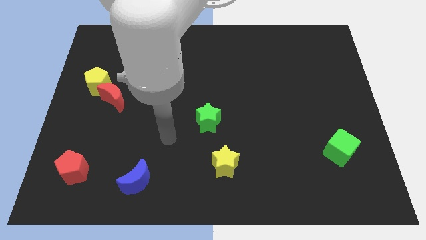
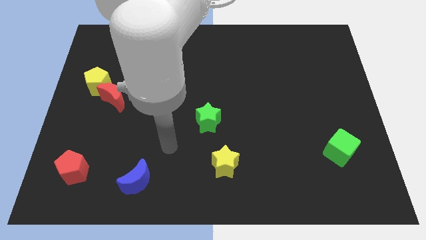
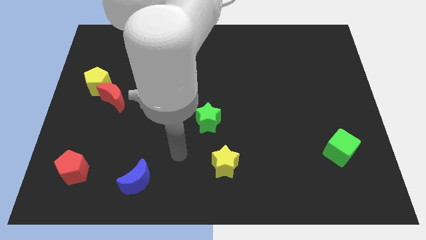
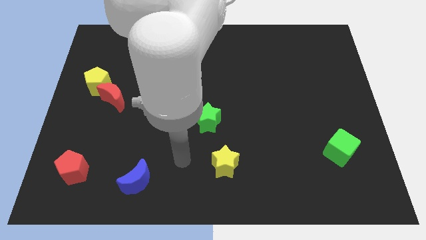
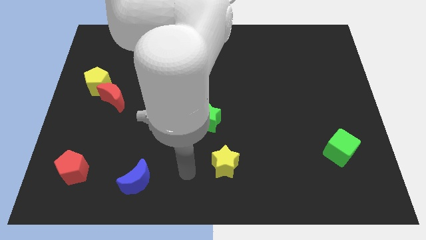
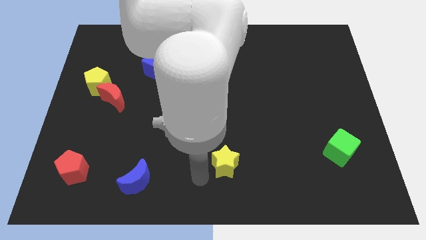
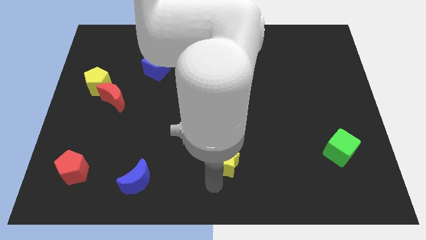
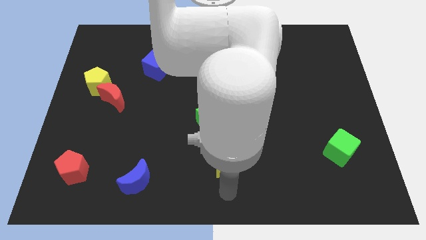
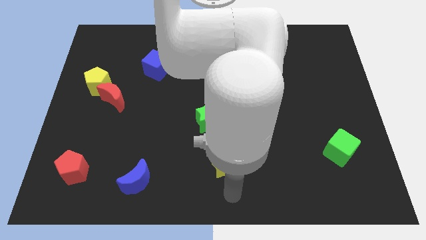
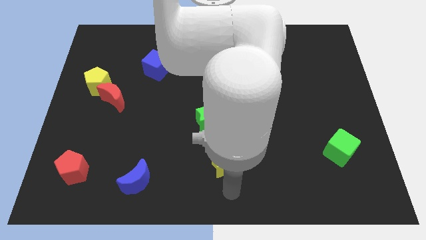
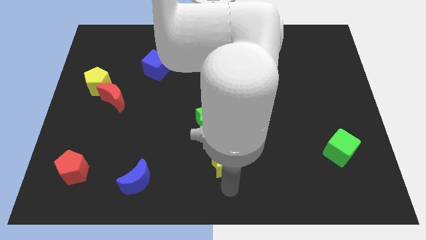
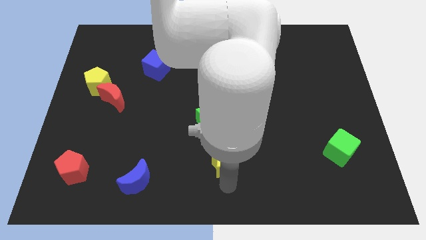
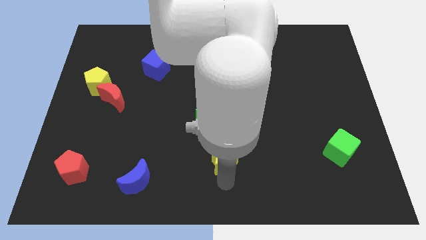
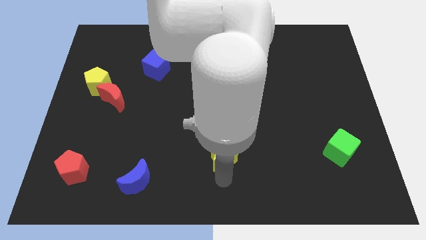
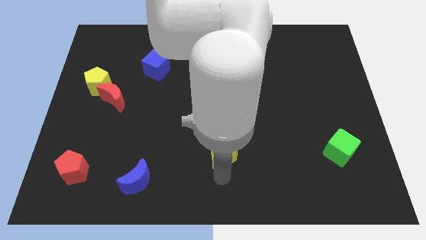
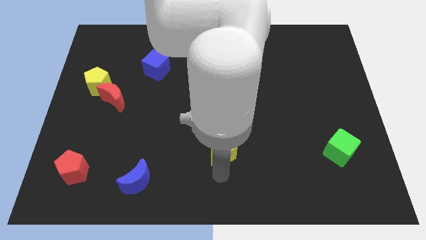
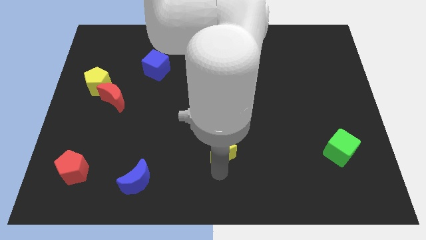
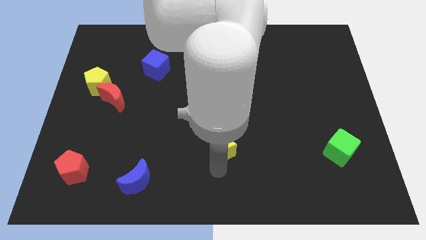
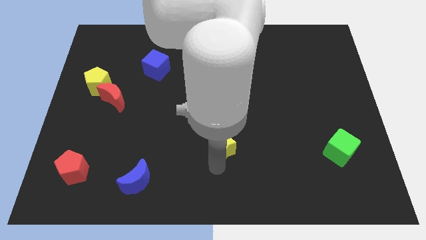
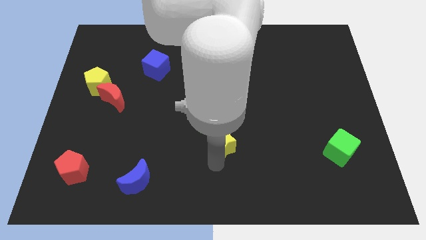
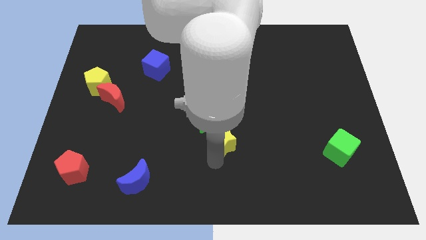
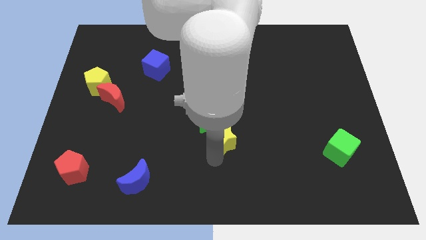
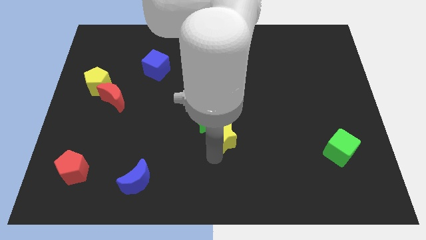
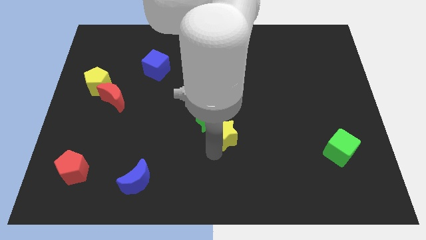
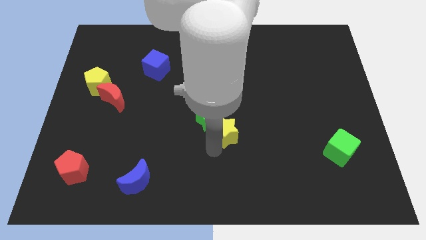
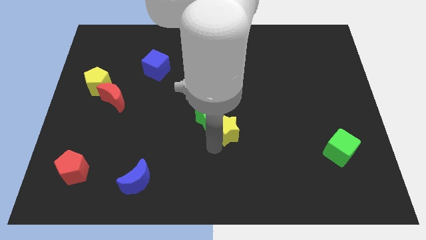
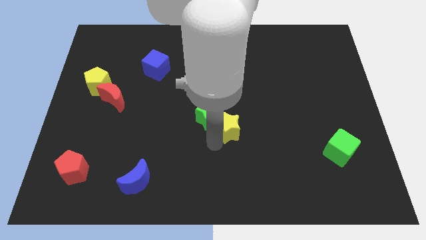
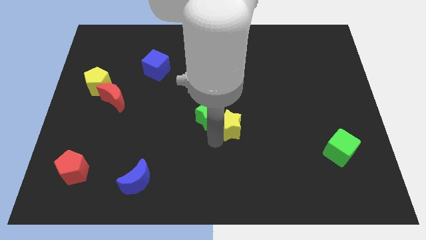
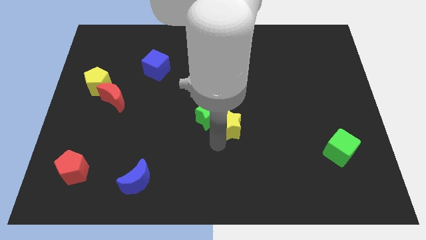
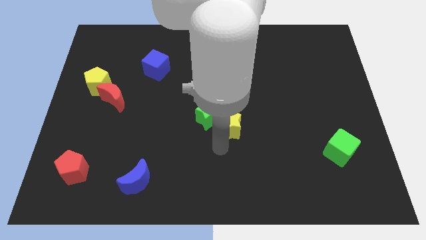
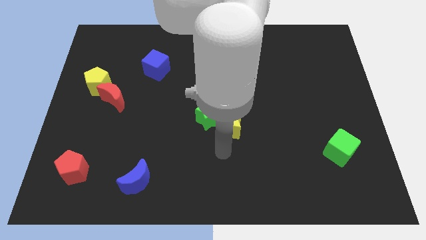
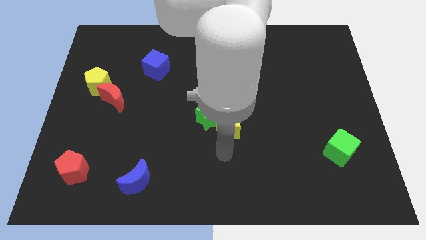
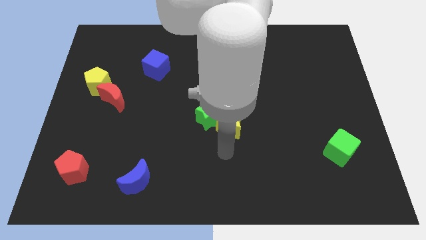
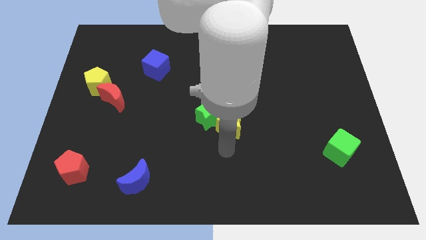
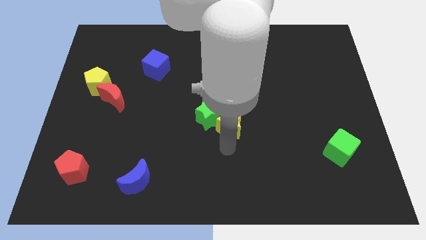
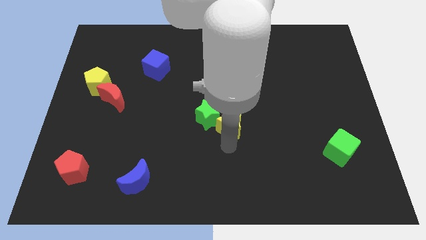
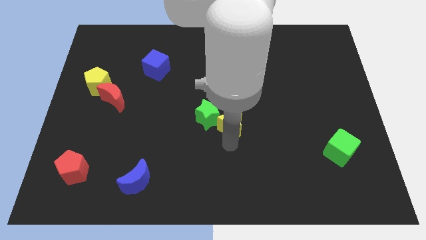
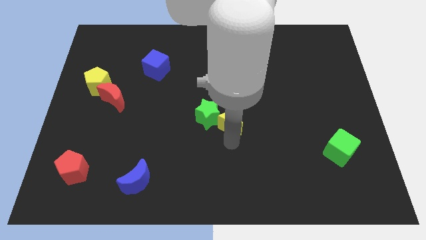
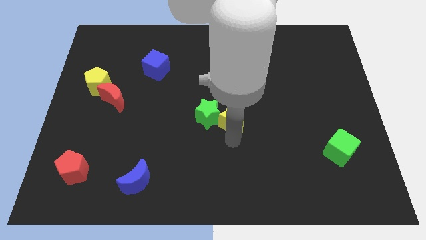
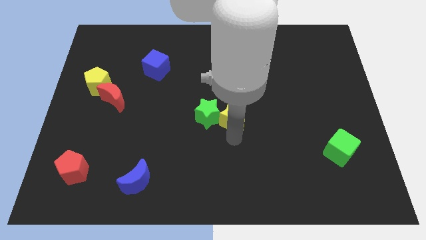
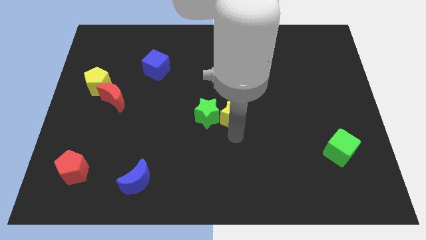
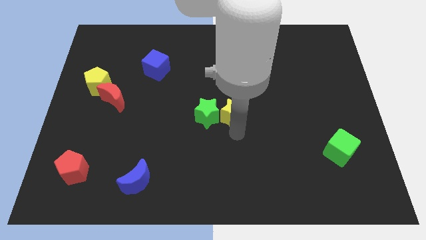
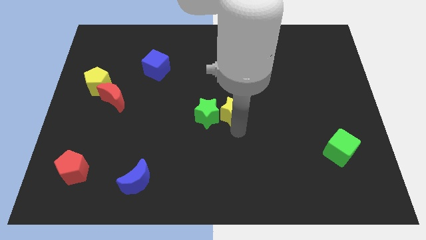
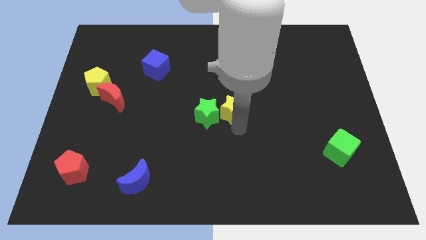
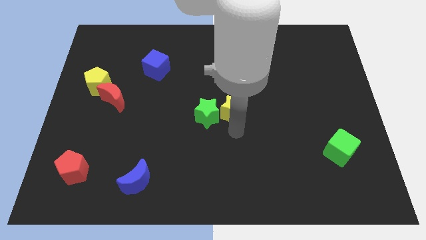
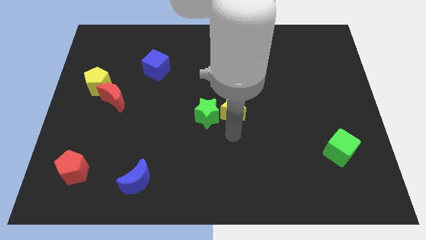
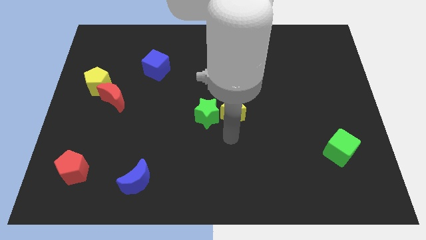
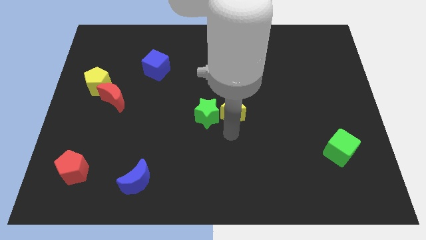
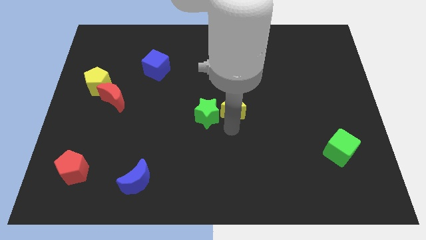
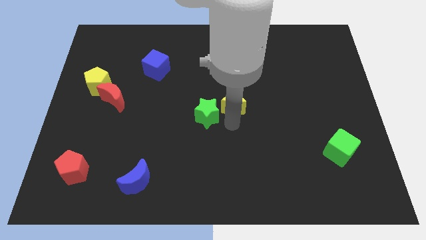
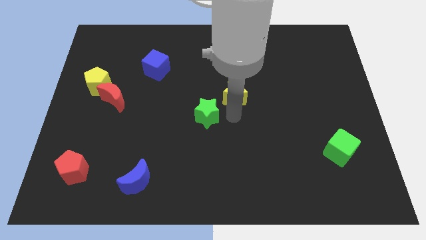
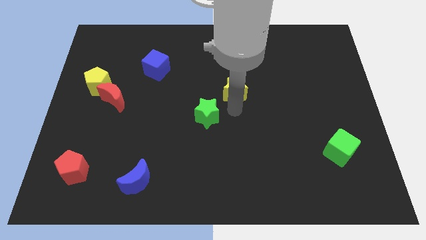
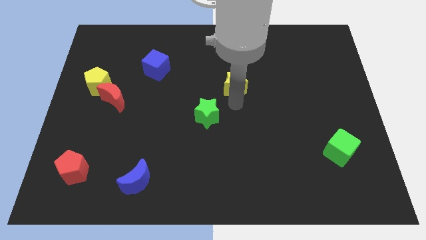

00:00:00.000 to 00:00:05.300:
move the yellow star up

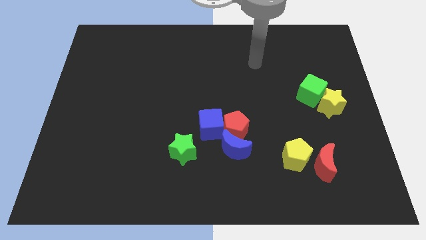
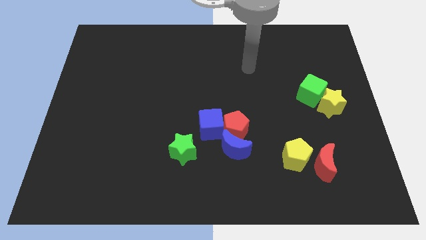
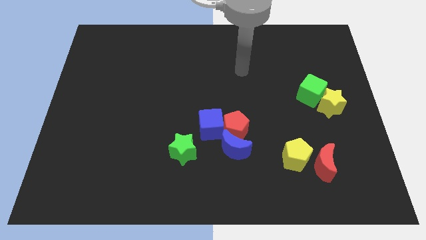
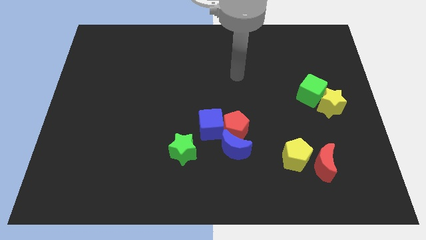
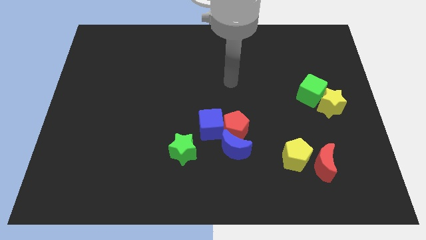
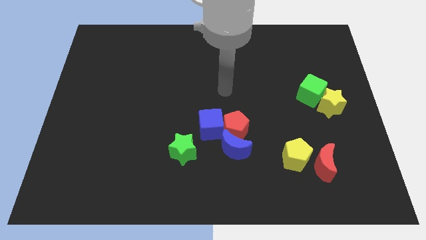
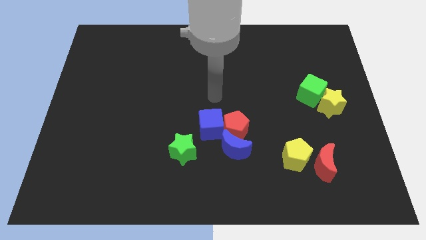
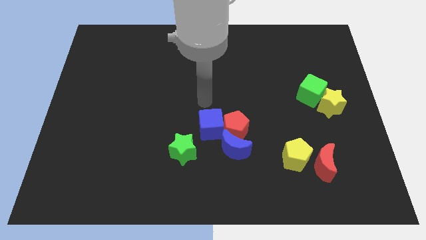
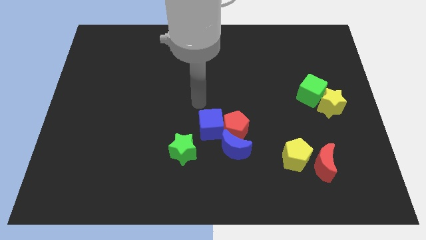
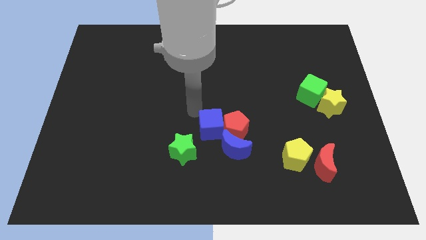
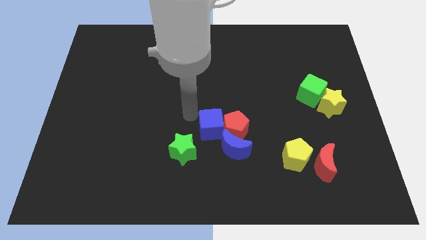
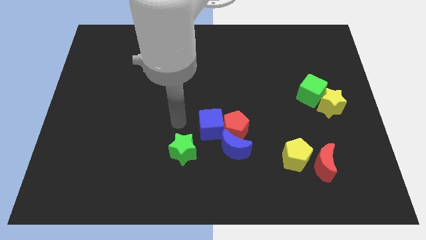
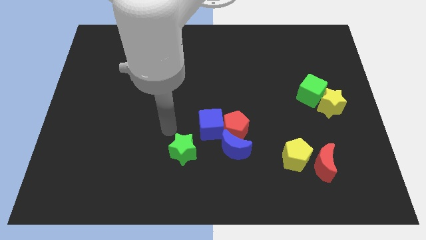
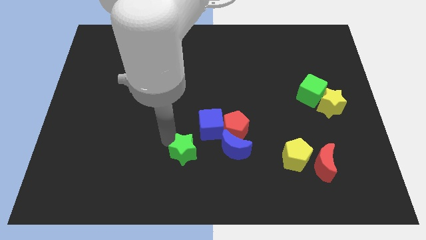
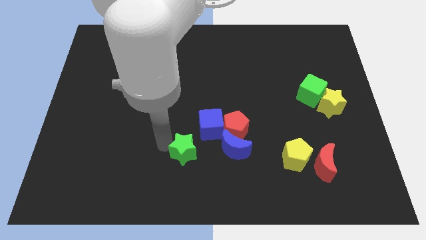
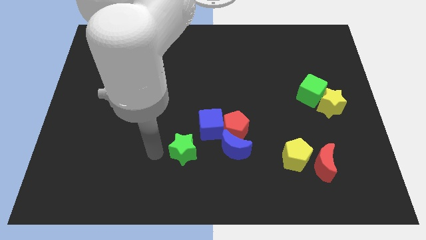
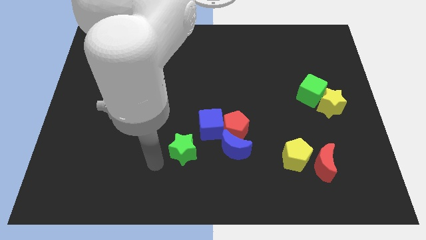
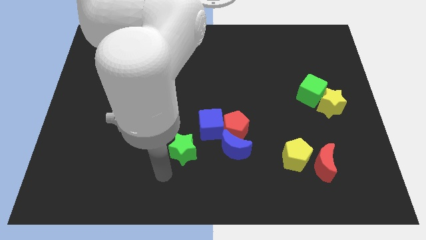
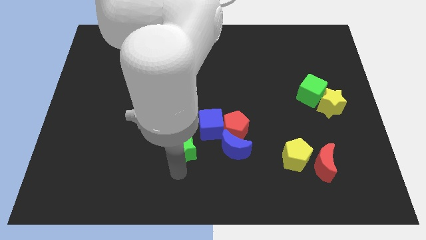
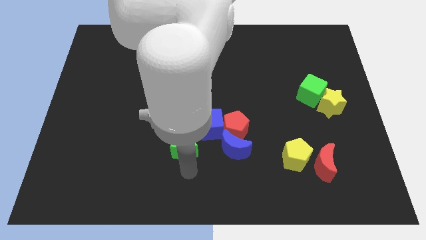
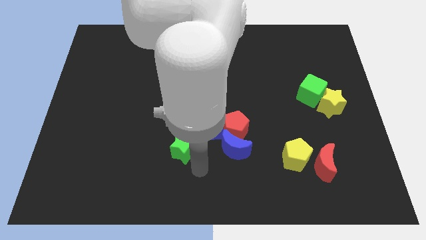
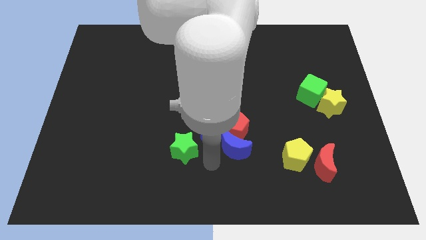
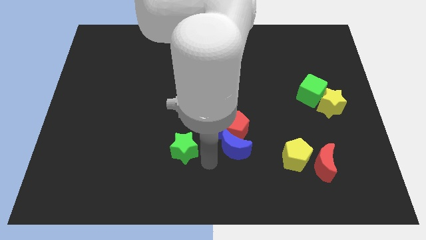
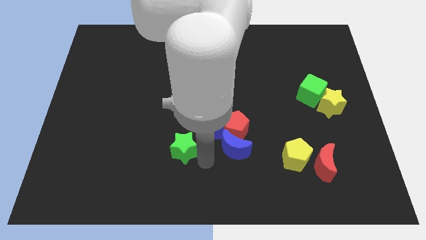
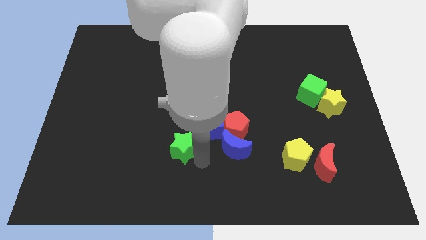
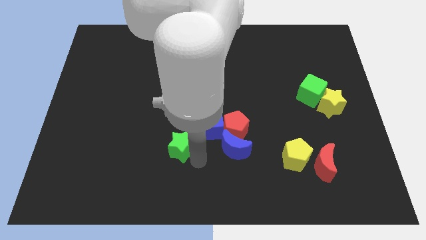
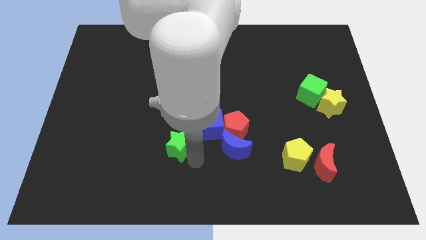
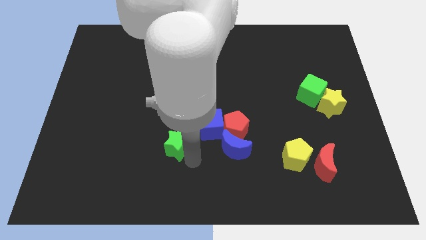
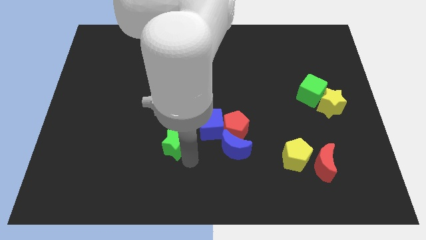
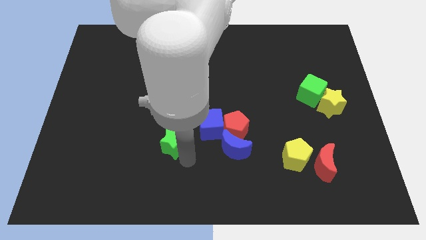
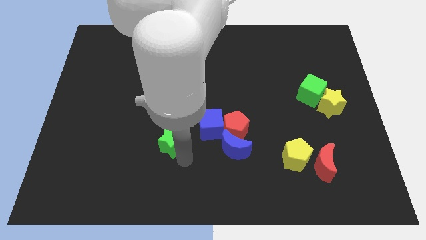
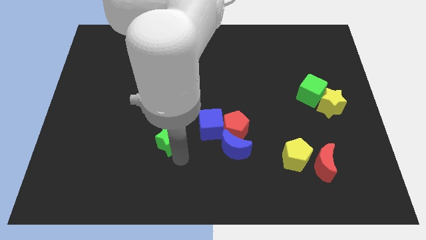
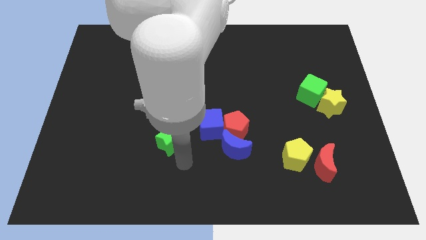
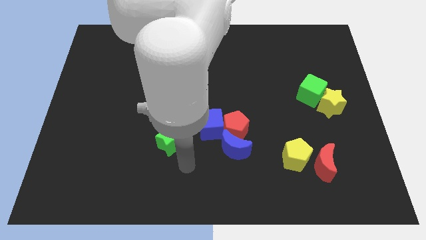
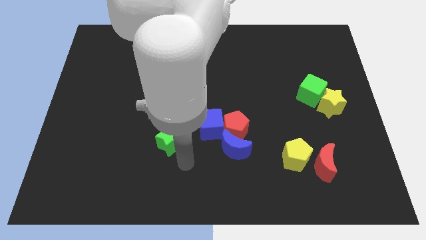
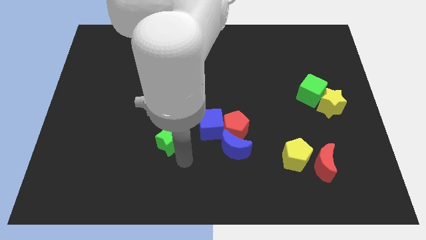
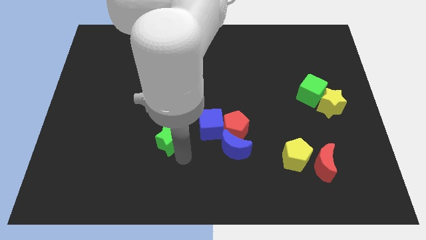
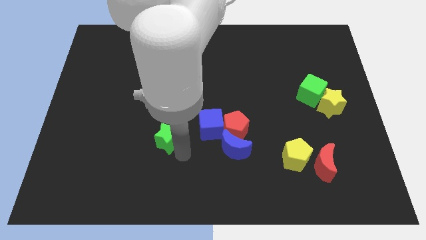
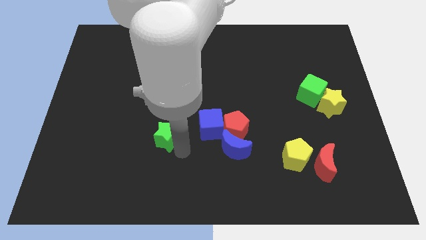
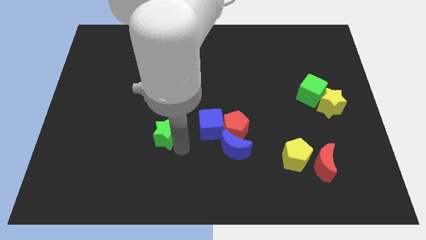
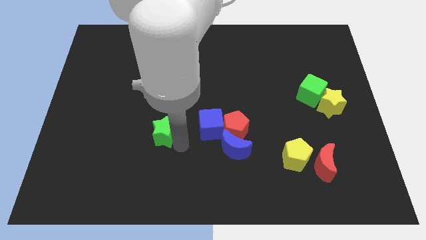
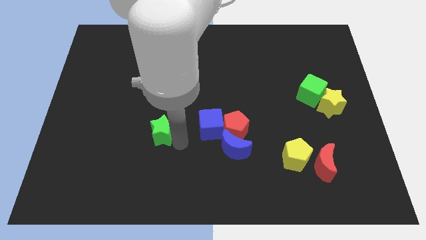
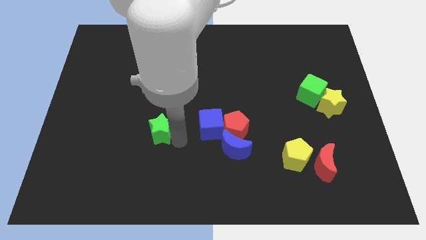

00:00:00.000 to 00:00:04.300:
slightly move the green star diagonally upwards and left
